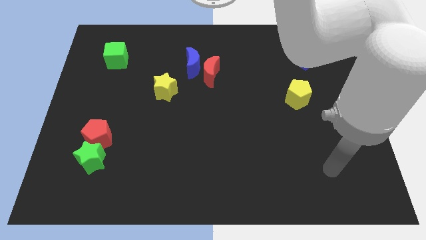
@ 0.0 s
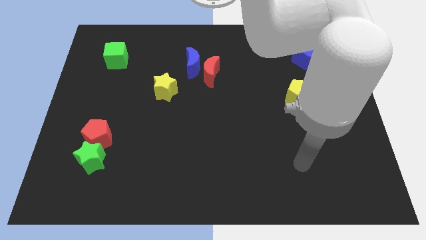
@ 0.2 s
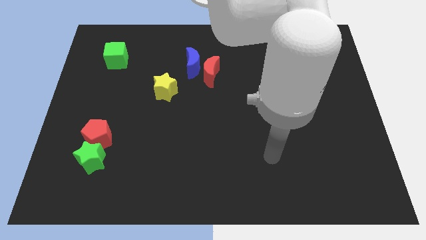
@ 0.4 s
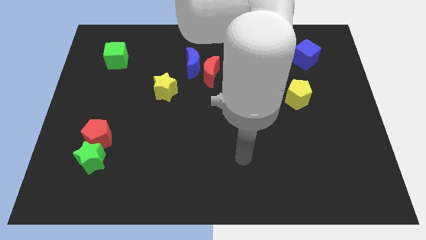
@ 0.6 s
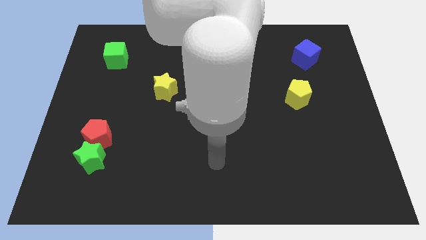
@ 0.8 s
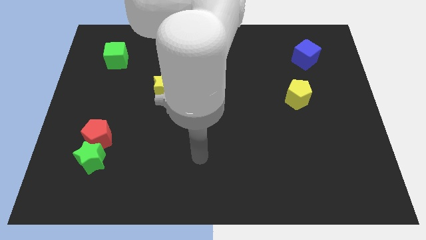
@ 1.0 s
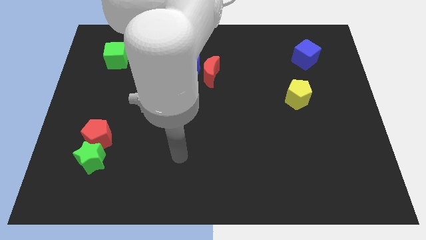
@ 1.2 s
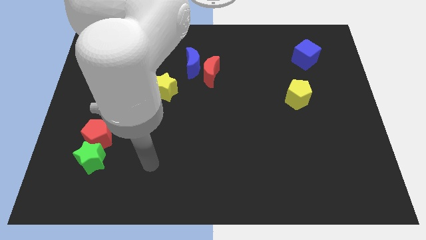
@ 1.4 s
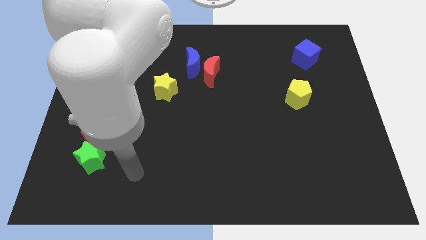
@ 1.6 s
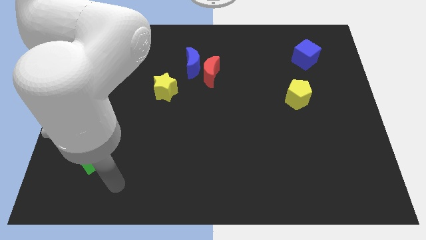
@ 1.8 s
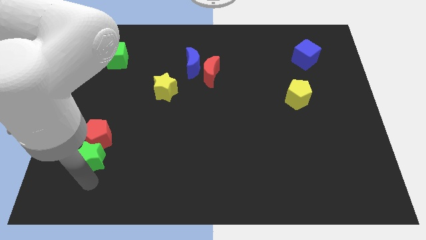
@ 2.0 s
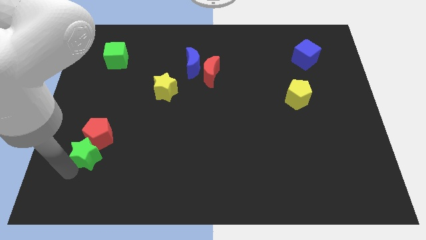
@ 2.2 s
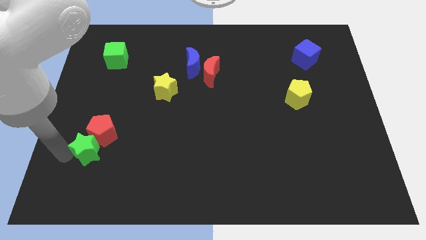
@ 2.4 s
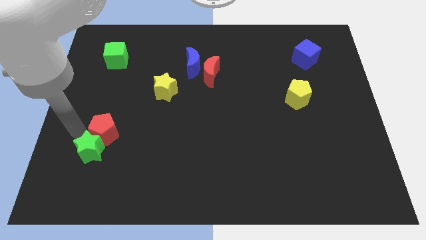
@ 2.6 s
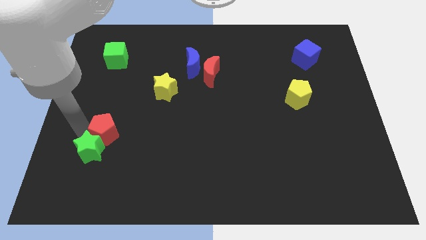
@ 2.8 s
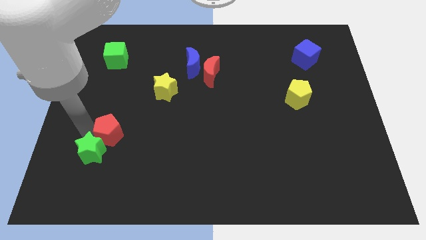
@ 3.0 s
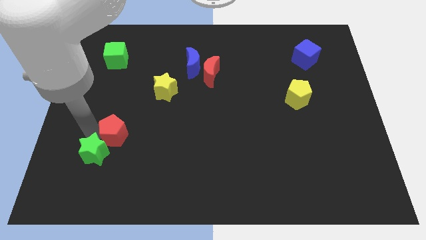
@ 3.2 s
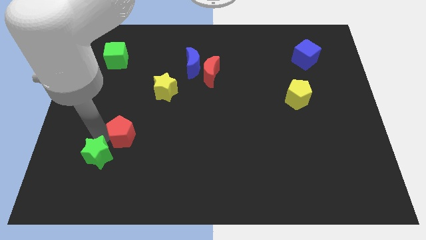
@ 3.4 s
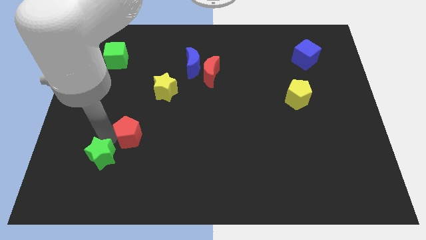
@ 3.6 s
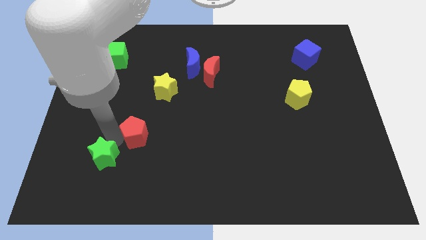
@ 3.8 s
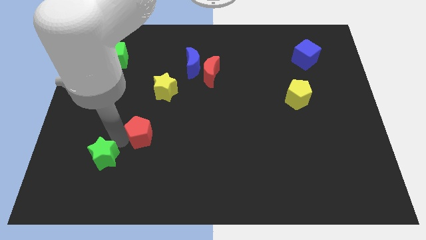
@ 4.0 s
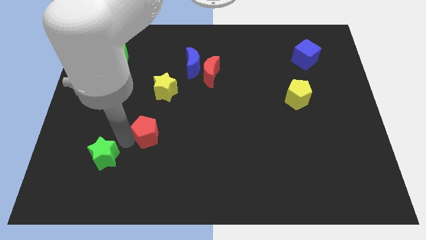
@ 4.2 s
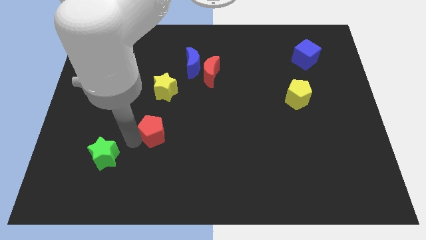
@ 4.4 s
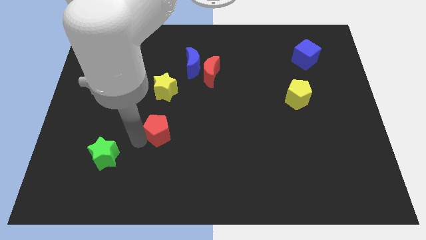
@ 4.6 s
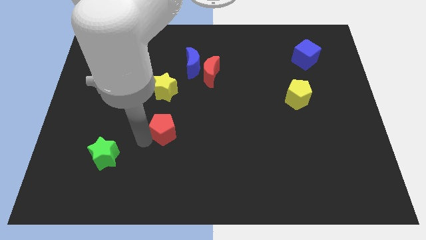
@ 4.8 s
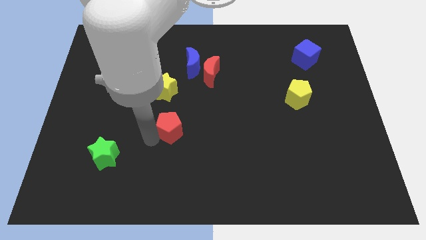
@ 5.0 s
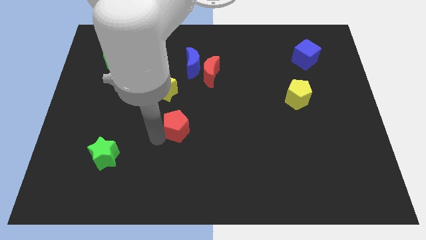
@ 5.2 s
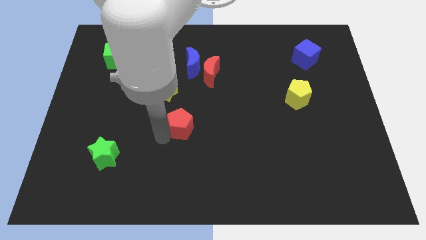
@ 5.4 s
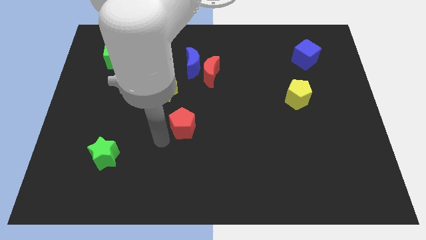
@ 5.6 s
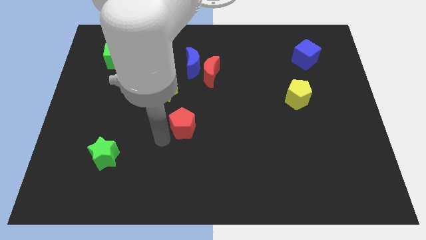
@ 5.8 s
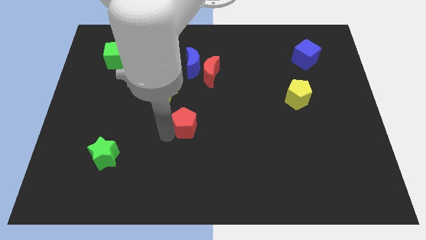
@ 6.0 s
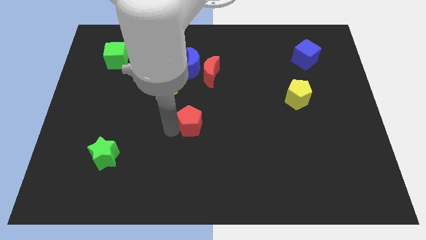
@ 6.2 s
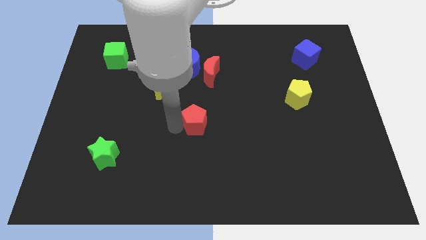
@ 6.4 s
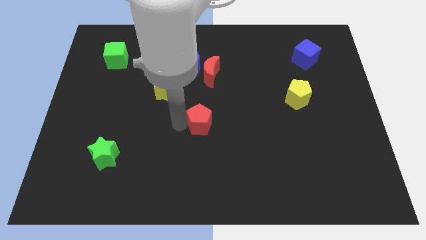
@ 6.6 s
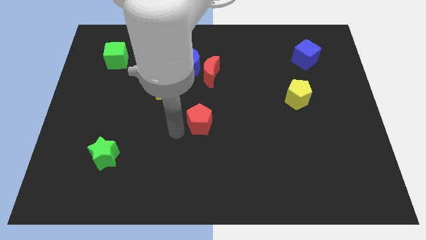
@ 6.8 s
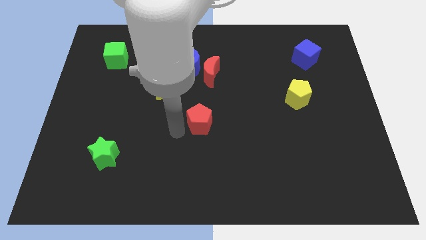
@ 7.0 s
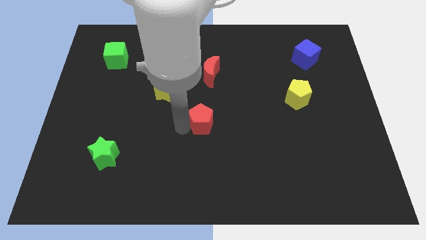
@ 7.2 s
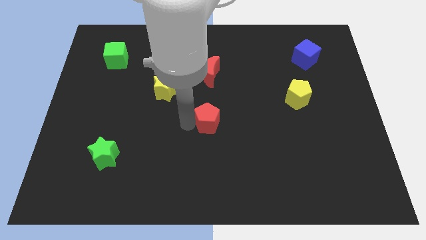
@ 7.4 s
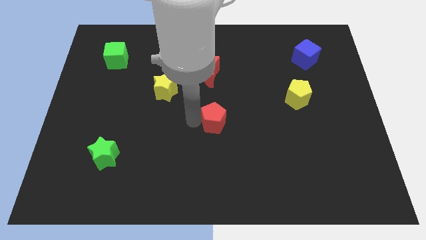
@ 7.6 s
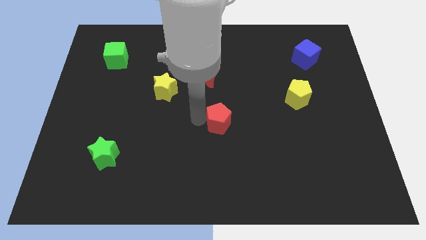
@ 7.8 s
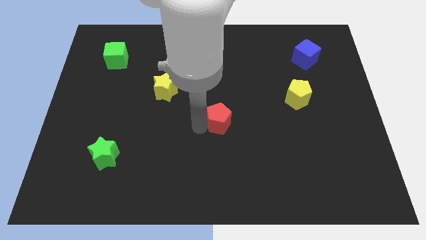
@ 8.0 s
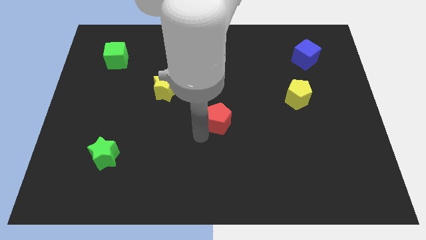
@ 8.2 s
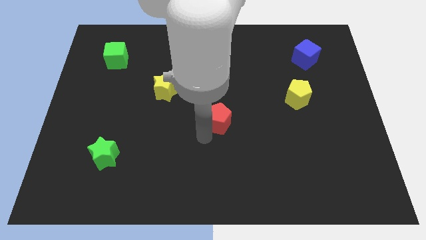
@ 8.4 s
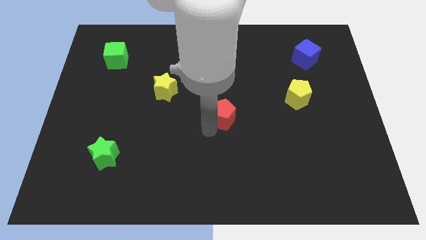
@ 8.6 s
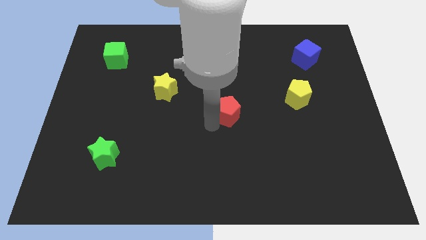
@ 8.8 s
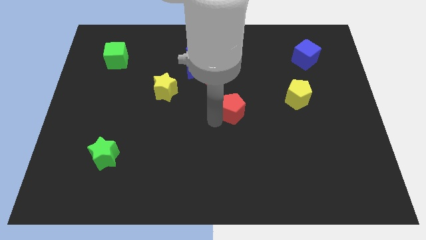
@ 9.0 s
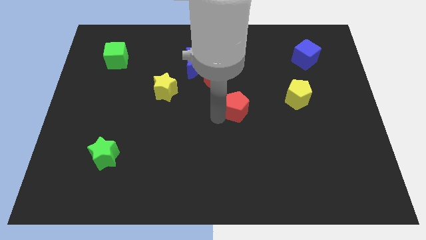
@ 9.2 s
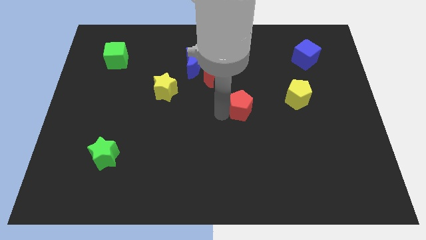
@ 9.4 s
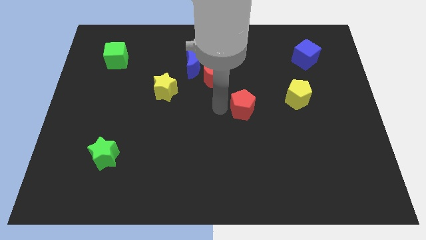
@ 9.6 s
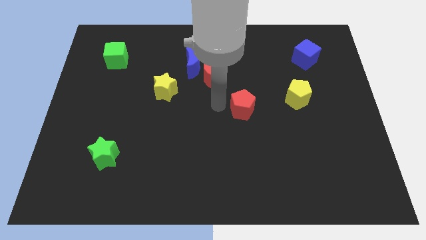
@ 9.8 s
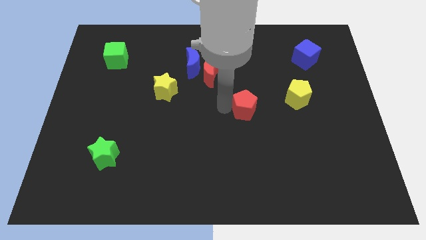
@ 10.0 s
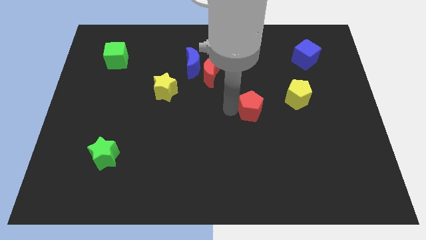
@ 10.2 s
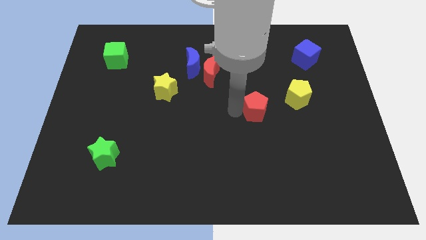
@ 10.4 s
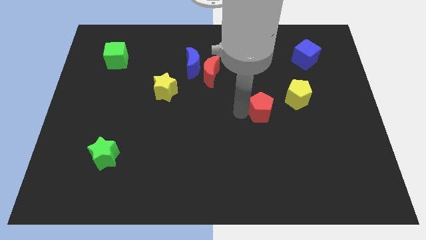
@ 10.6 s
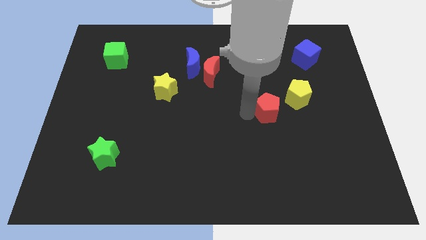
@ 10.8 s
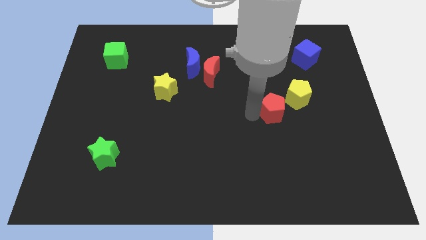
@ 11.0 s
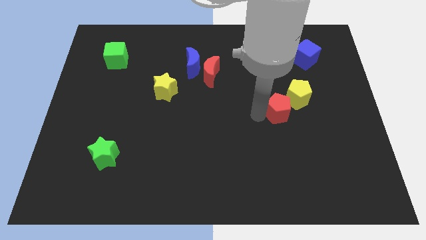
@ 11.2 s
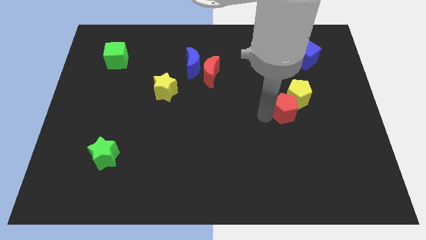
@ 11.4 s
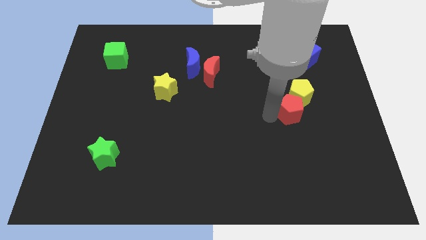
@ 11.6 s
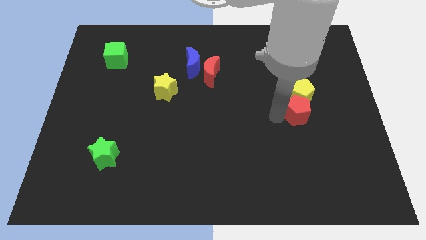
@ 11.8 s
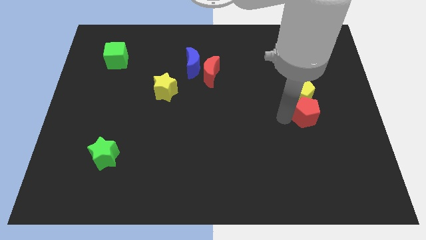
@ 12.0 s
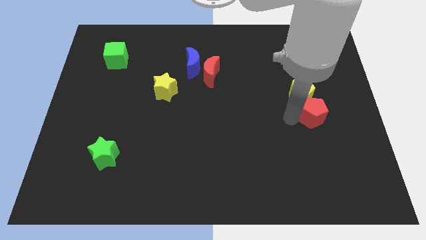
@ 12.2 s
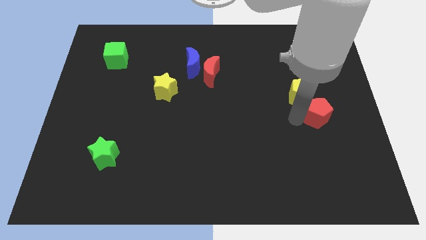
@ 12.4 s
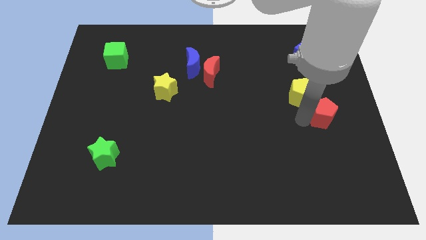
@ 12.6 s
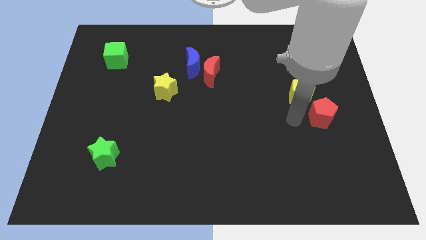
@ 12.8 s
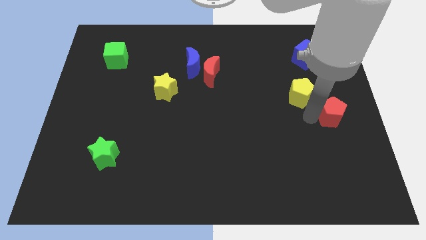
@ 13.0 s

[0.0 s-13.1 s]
move the red pentagon to the center right
